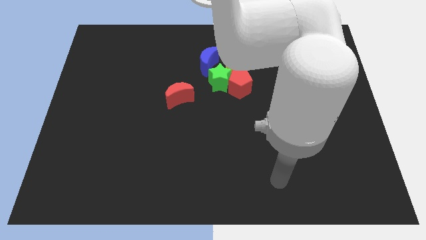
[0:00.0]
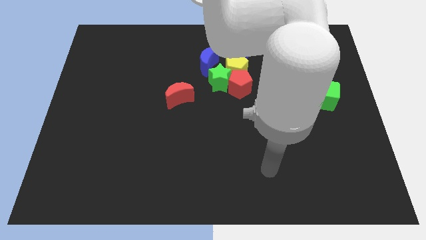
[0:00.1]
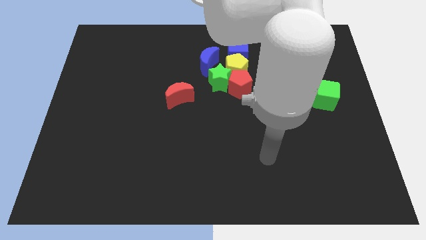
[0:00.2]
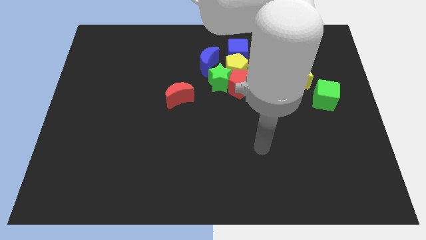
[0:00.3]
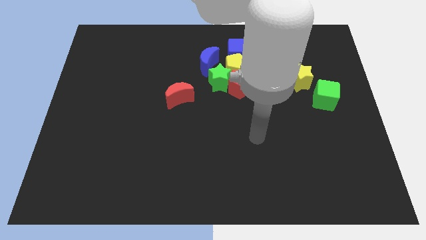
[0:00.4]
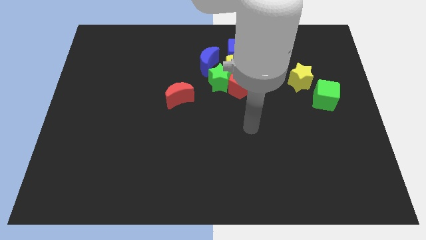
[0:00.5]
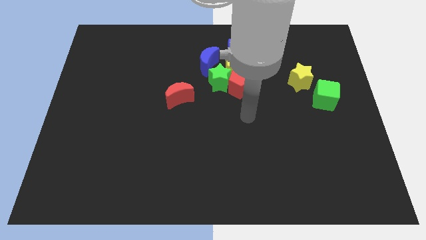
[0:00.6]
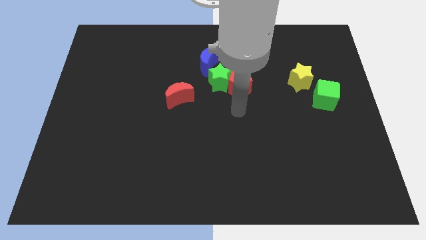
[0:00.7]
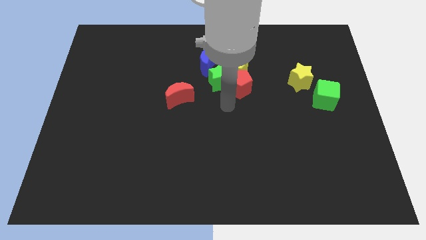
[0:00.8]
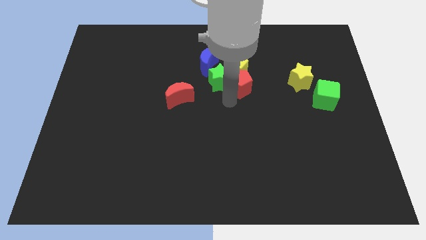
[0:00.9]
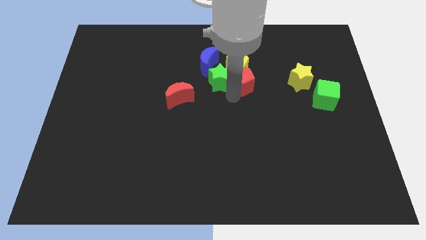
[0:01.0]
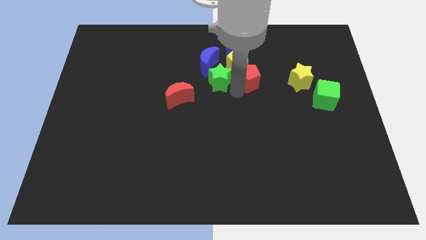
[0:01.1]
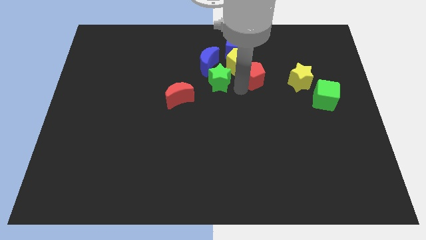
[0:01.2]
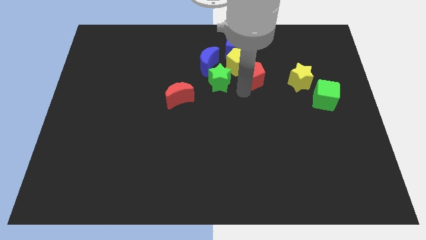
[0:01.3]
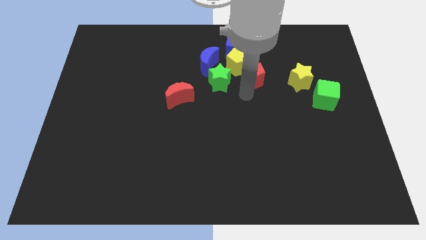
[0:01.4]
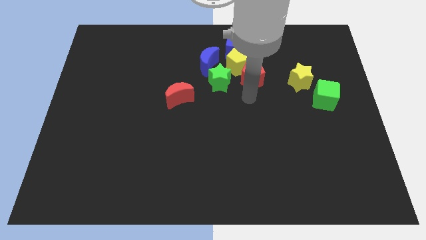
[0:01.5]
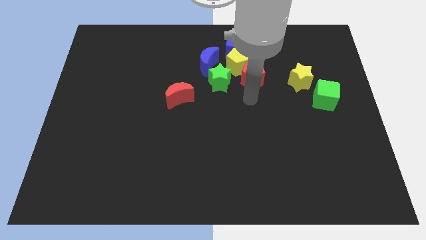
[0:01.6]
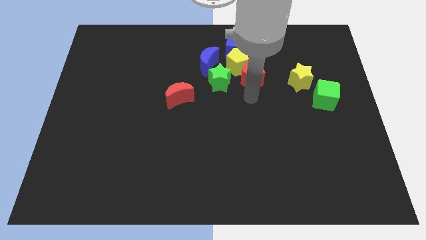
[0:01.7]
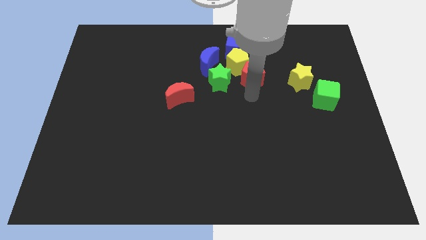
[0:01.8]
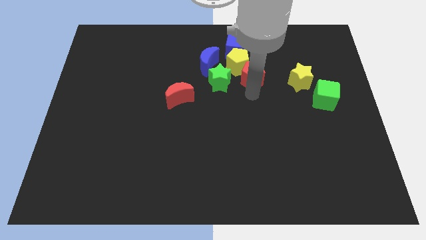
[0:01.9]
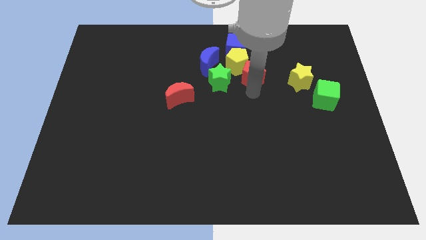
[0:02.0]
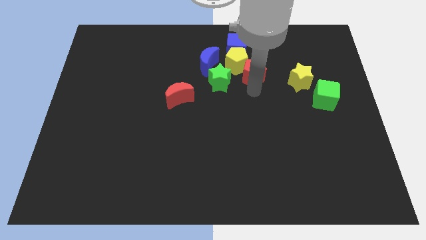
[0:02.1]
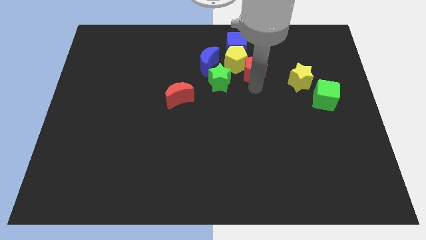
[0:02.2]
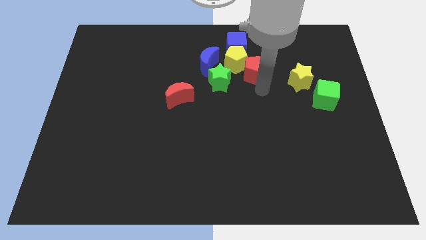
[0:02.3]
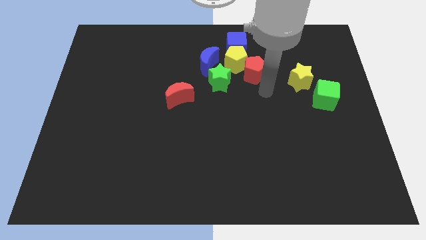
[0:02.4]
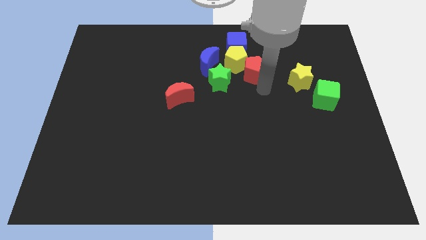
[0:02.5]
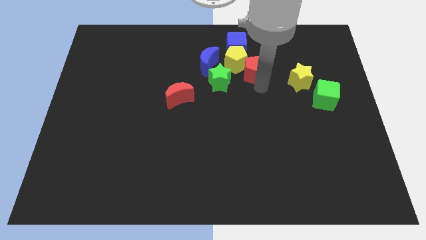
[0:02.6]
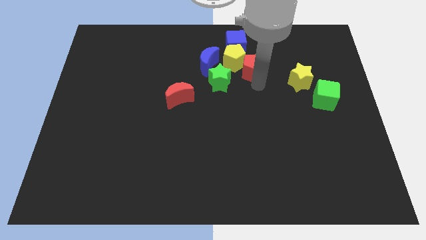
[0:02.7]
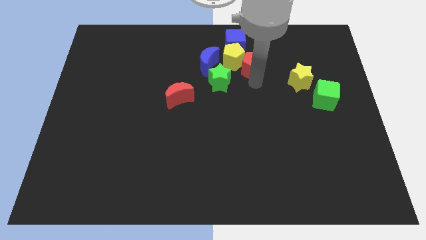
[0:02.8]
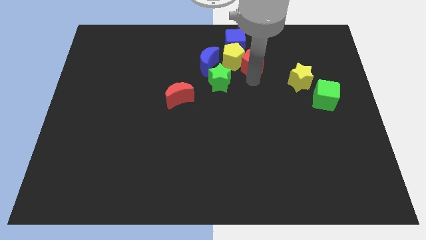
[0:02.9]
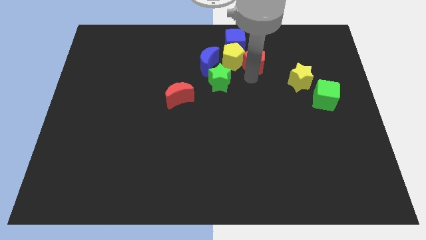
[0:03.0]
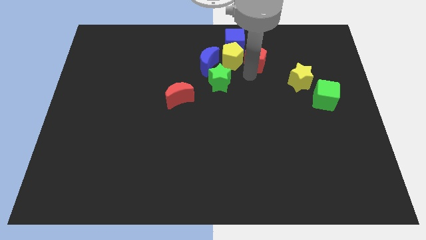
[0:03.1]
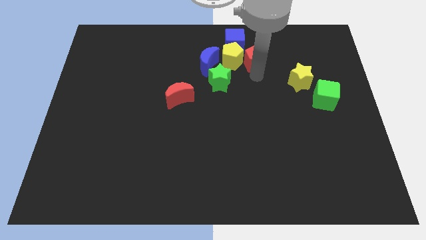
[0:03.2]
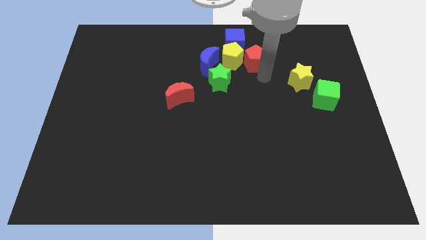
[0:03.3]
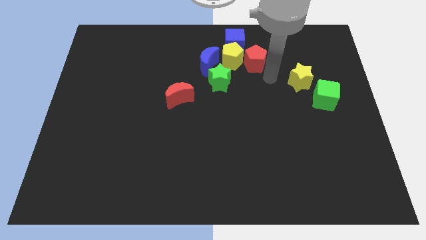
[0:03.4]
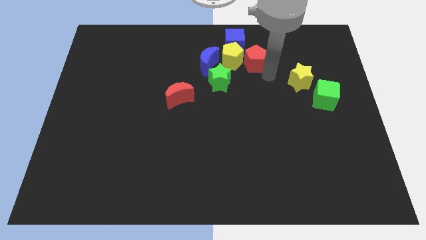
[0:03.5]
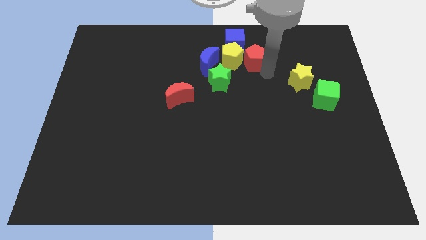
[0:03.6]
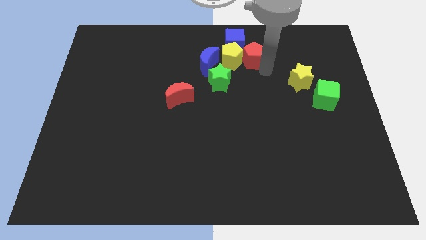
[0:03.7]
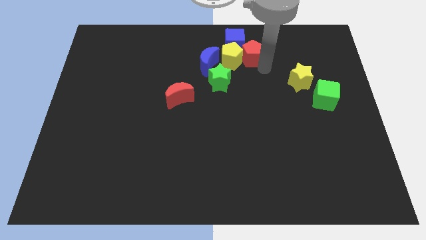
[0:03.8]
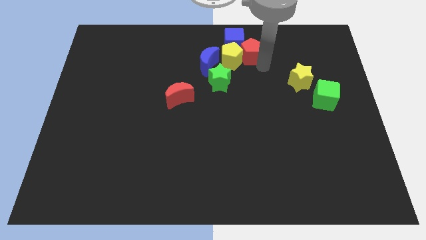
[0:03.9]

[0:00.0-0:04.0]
slide the red pentagon towards the blue cube

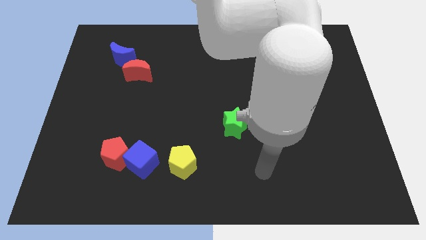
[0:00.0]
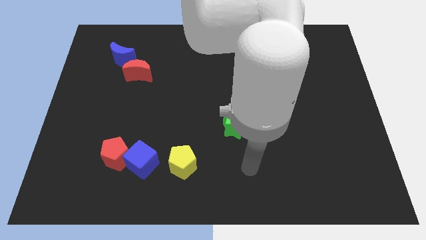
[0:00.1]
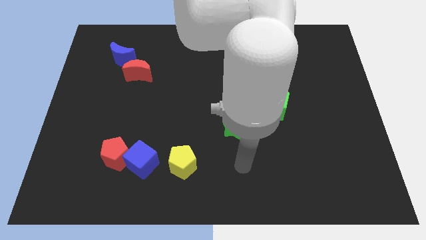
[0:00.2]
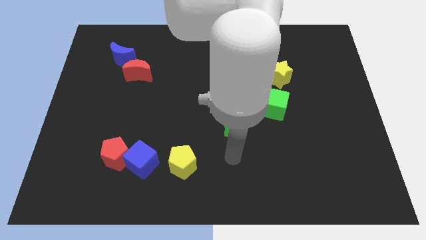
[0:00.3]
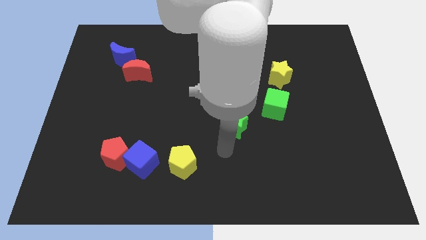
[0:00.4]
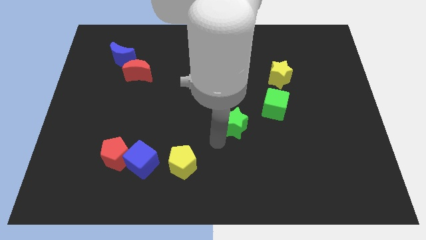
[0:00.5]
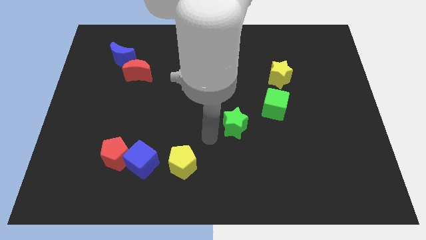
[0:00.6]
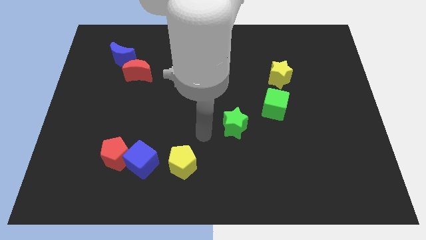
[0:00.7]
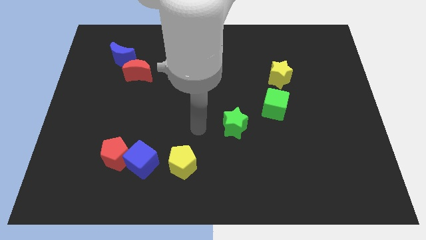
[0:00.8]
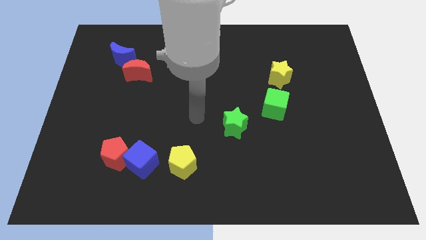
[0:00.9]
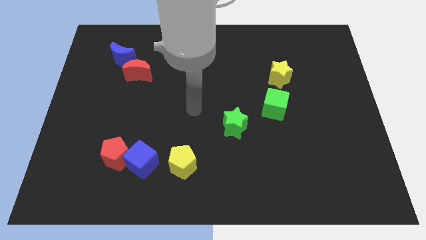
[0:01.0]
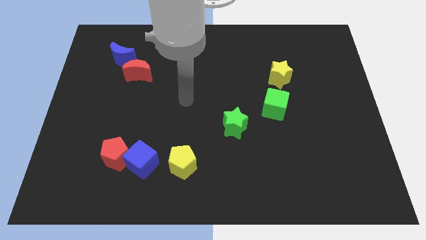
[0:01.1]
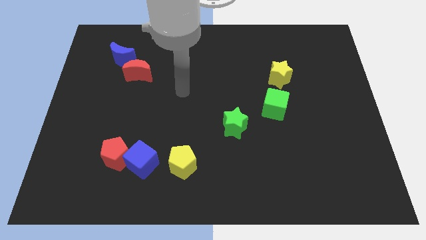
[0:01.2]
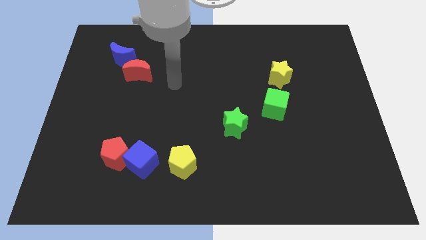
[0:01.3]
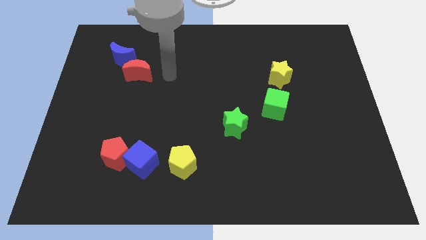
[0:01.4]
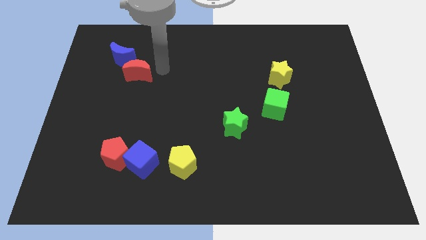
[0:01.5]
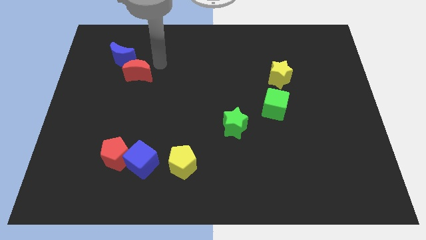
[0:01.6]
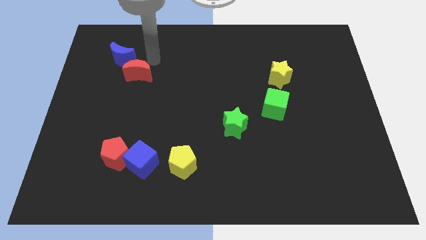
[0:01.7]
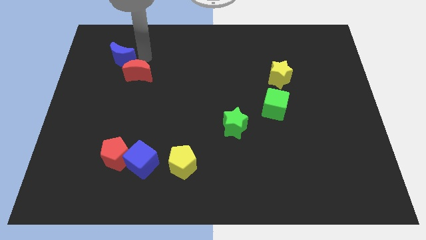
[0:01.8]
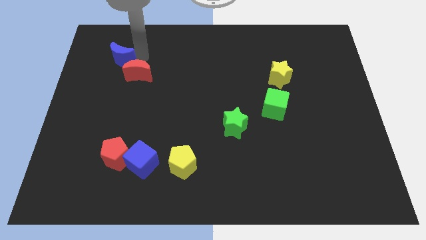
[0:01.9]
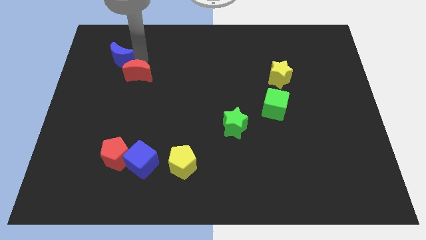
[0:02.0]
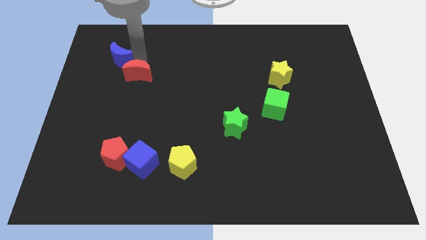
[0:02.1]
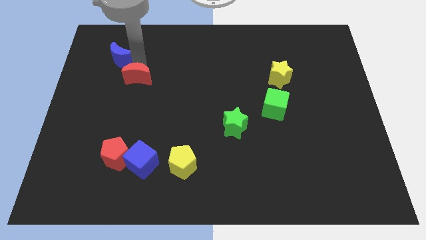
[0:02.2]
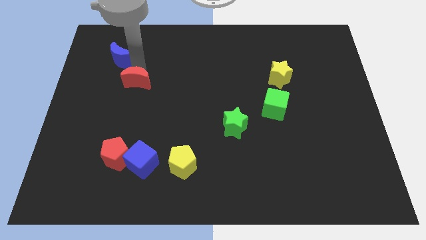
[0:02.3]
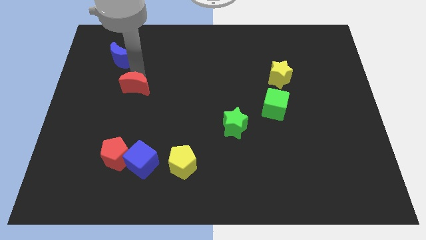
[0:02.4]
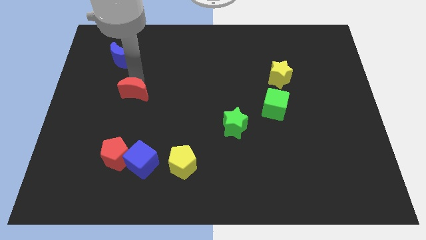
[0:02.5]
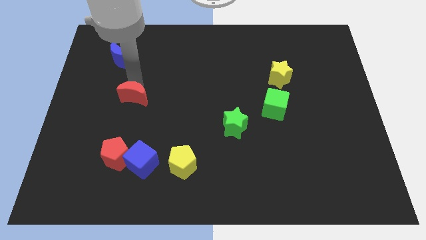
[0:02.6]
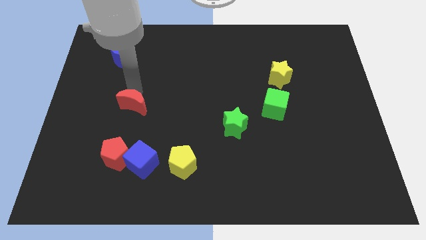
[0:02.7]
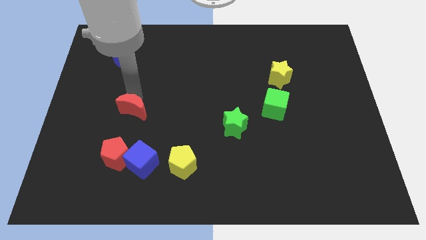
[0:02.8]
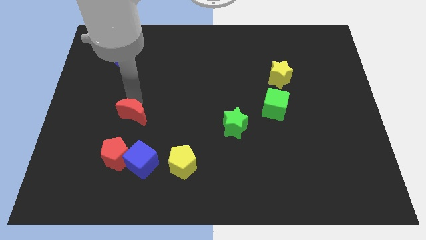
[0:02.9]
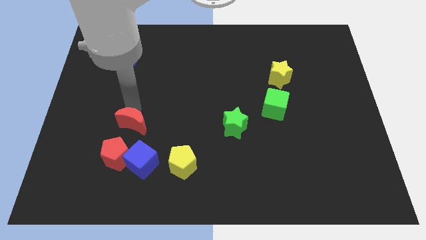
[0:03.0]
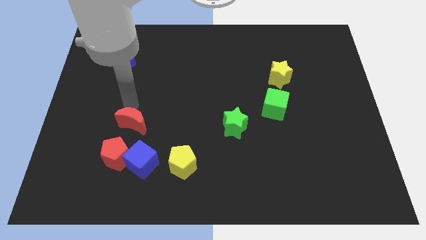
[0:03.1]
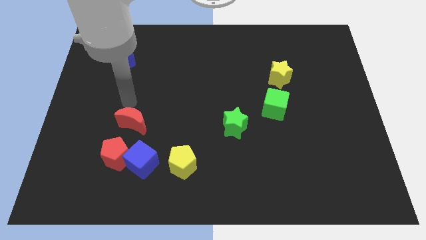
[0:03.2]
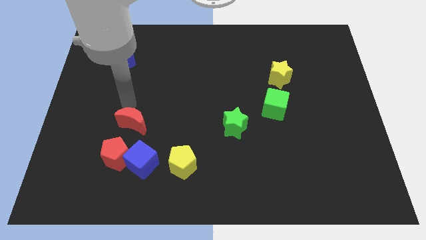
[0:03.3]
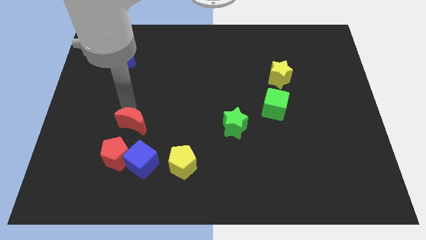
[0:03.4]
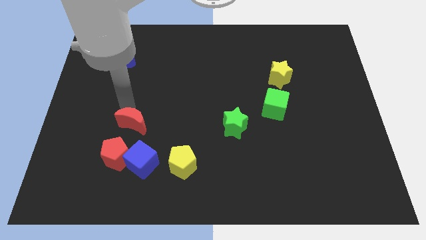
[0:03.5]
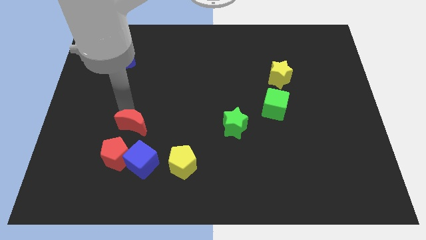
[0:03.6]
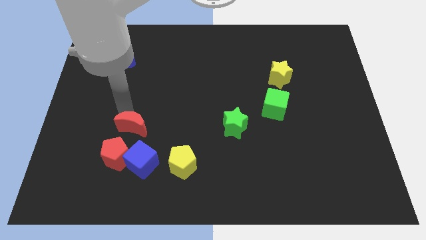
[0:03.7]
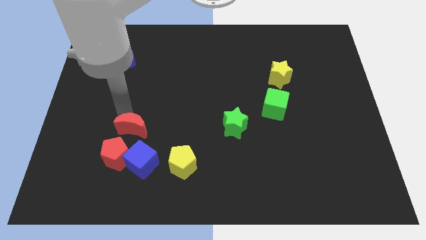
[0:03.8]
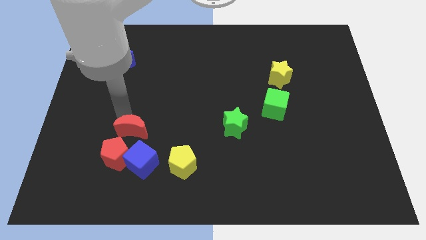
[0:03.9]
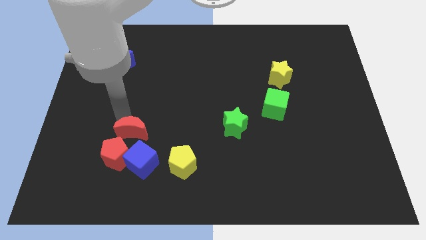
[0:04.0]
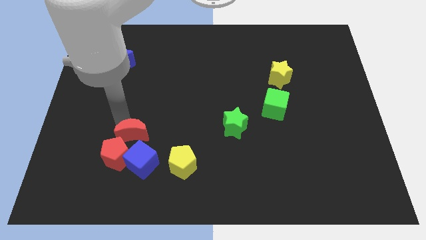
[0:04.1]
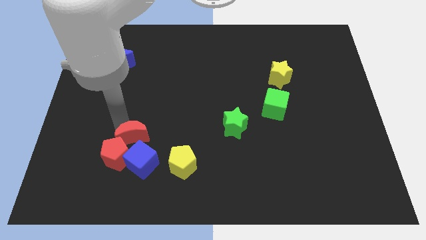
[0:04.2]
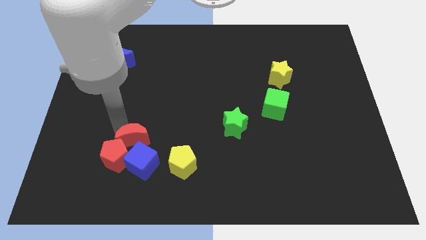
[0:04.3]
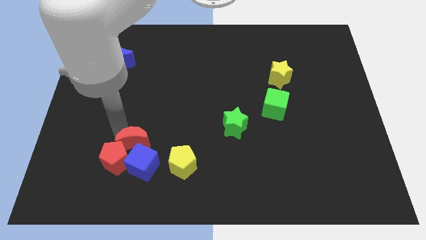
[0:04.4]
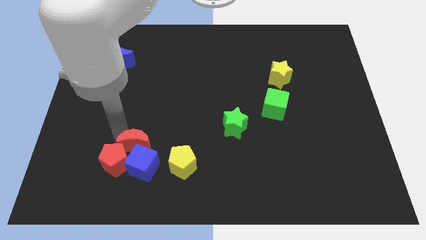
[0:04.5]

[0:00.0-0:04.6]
put the red moon towards the blue cube
